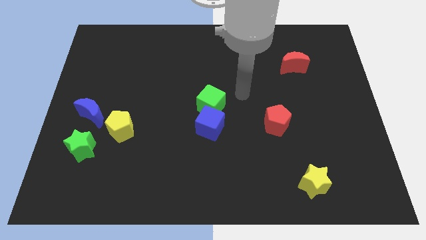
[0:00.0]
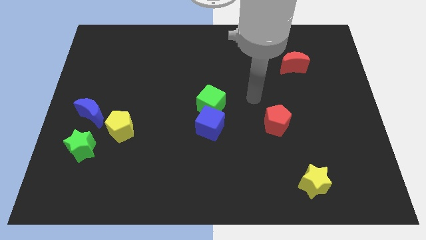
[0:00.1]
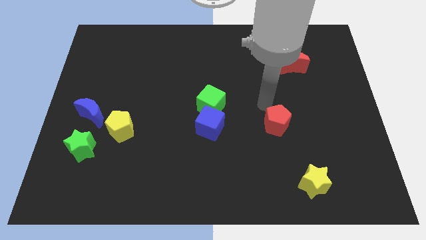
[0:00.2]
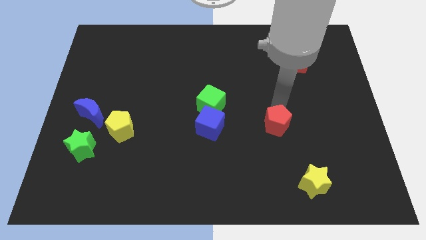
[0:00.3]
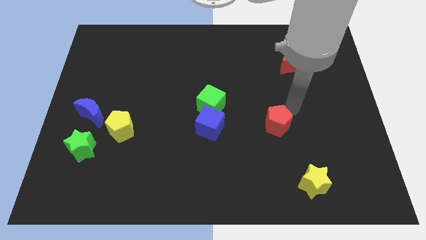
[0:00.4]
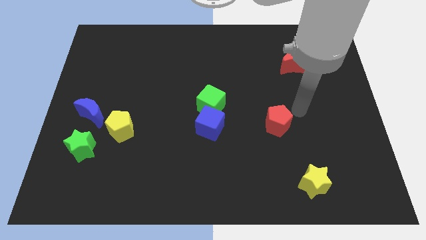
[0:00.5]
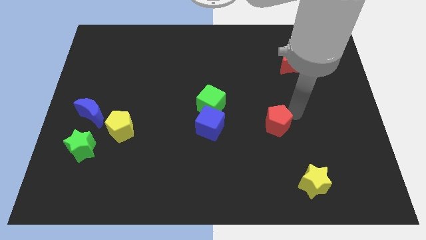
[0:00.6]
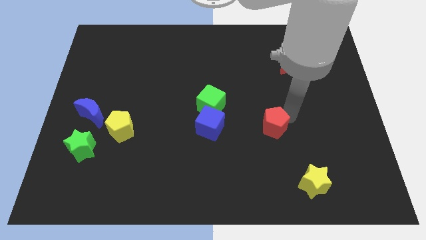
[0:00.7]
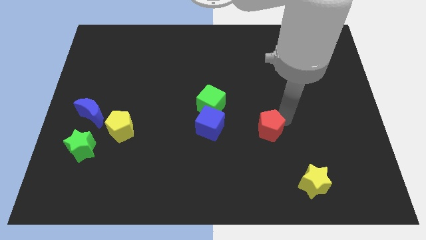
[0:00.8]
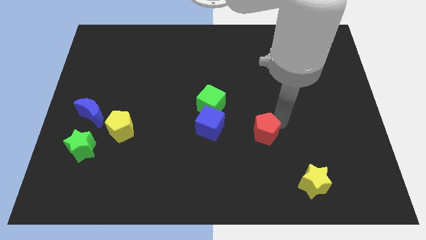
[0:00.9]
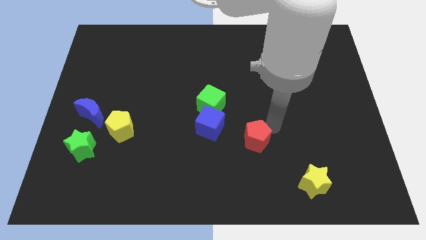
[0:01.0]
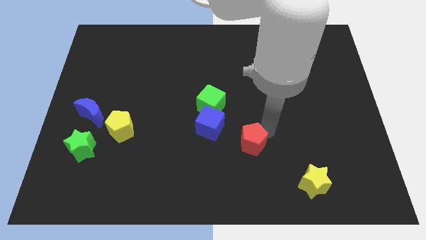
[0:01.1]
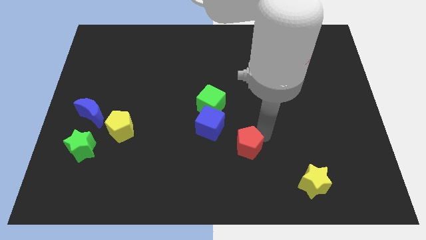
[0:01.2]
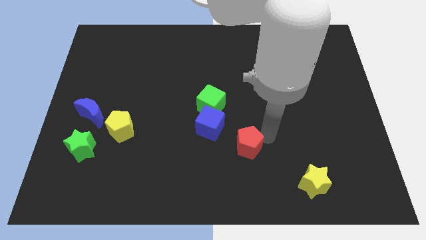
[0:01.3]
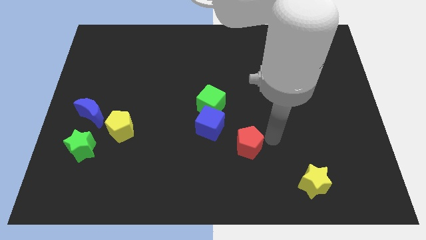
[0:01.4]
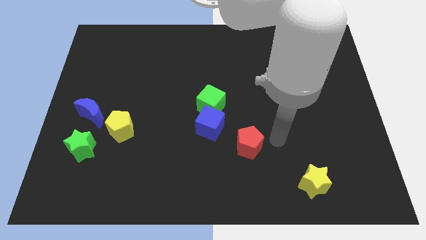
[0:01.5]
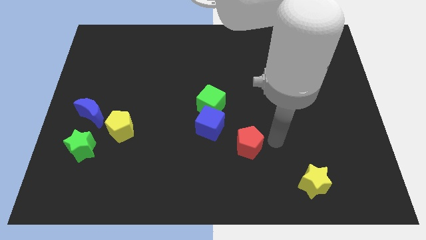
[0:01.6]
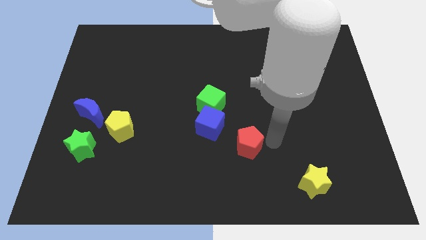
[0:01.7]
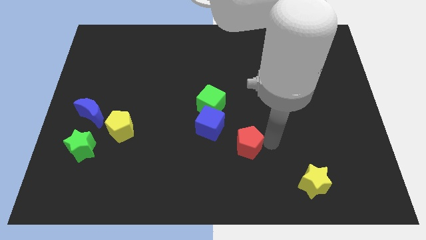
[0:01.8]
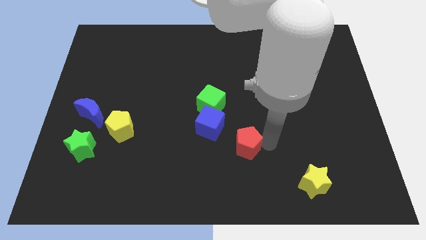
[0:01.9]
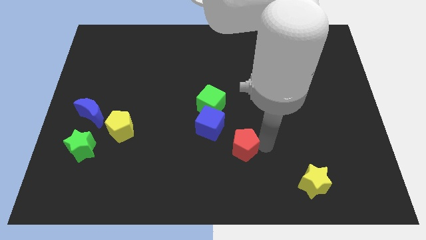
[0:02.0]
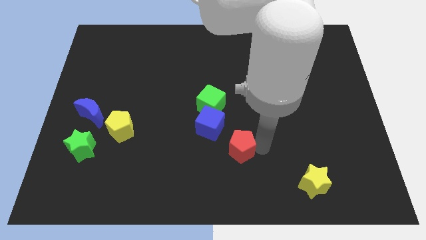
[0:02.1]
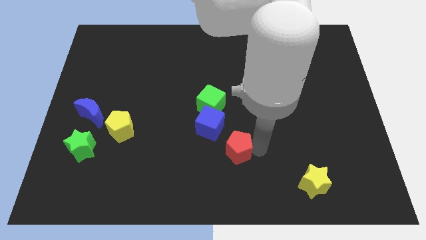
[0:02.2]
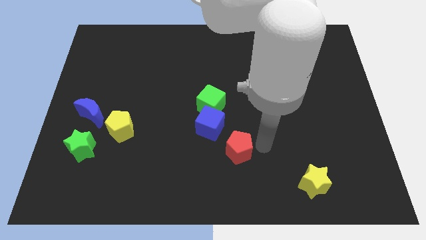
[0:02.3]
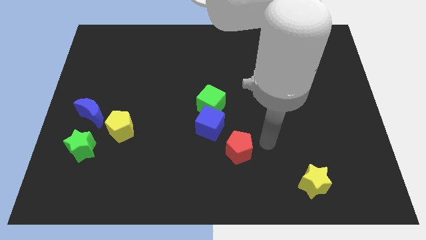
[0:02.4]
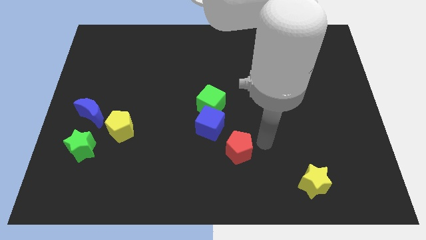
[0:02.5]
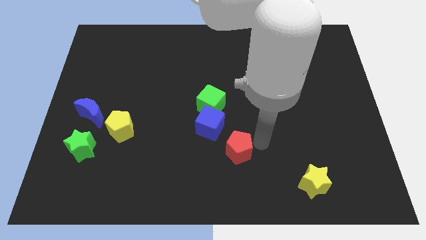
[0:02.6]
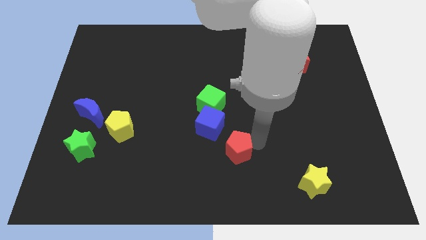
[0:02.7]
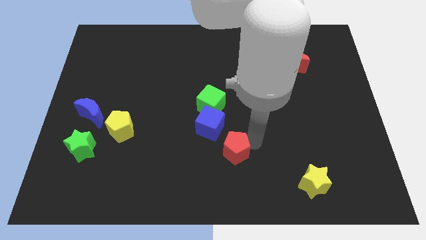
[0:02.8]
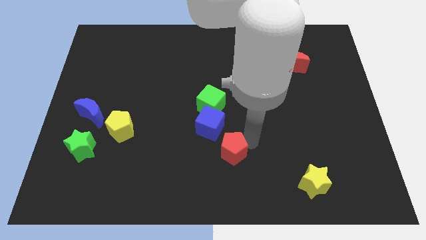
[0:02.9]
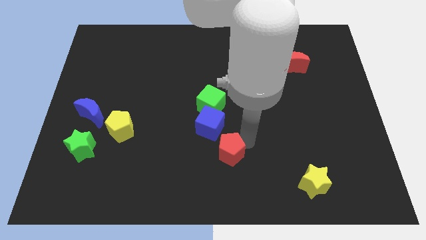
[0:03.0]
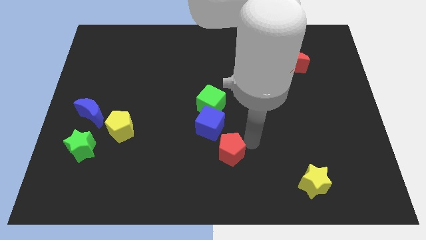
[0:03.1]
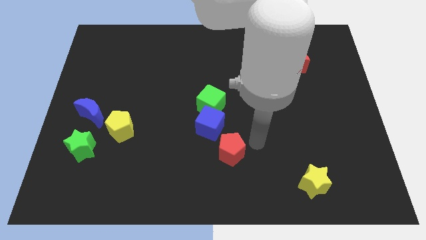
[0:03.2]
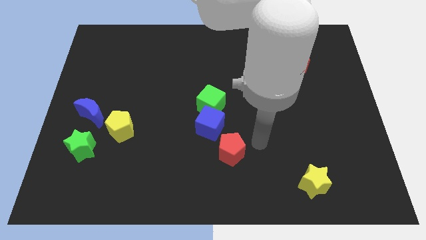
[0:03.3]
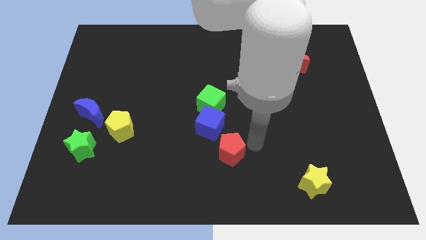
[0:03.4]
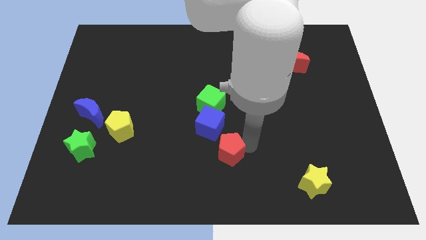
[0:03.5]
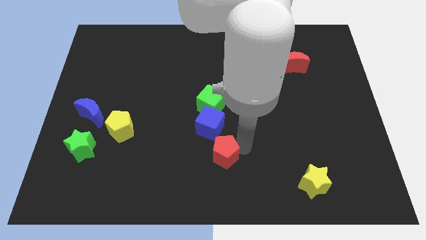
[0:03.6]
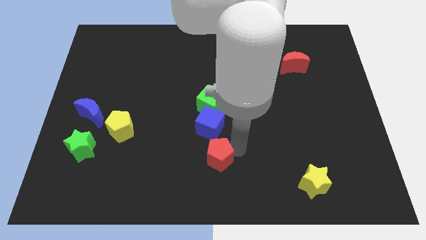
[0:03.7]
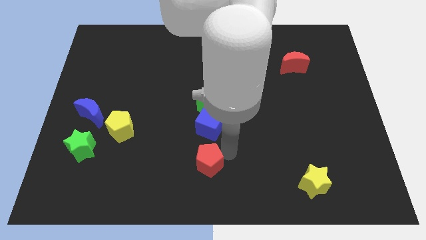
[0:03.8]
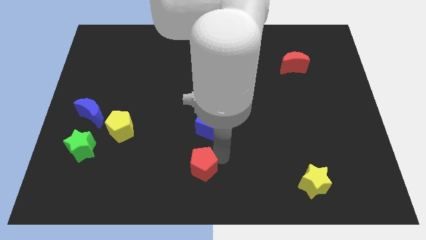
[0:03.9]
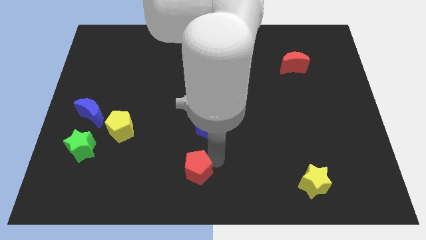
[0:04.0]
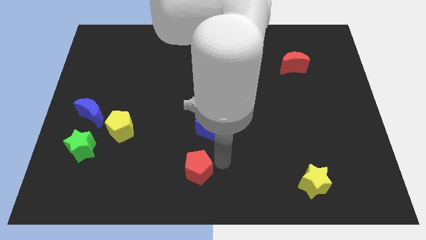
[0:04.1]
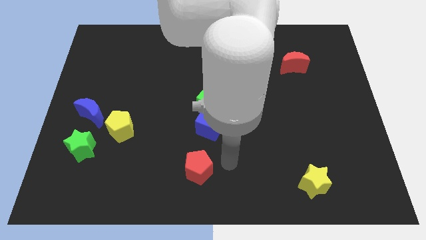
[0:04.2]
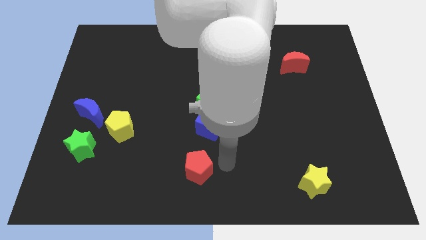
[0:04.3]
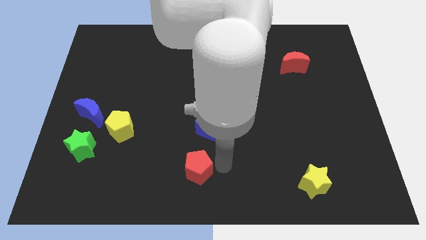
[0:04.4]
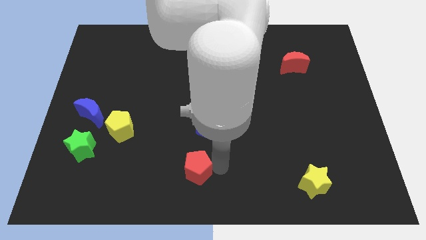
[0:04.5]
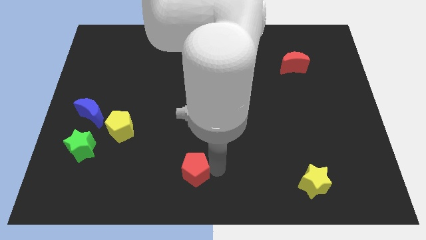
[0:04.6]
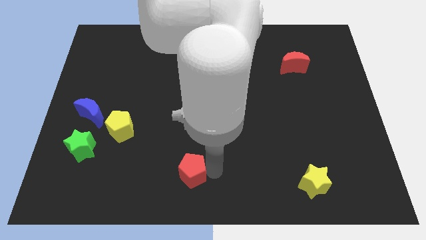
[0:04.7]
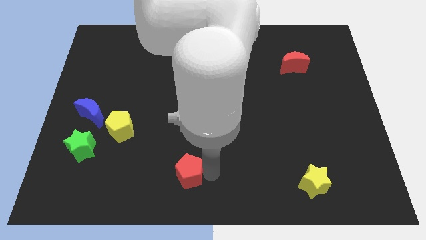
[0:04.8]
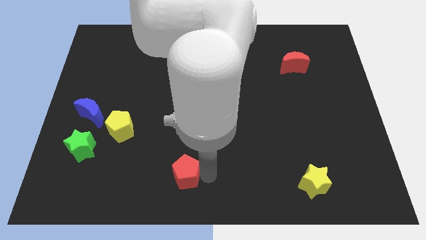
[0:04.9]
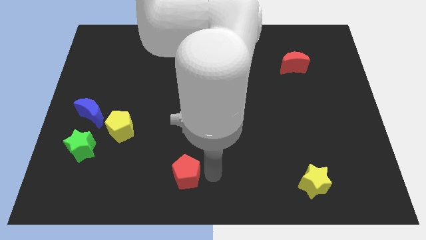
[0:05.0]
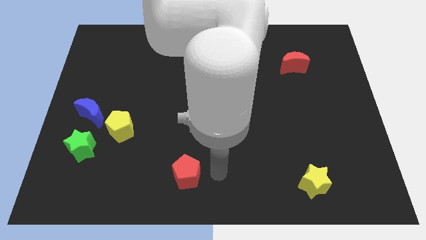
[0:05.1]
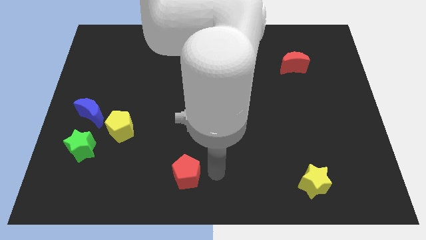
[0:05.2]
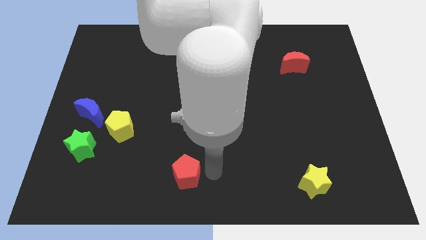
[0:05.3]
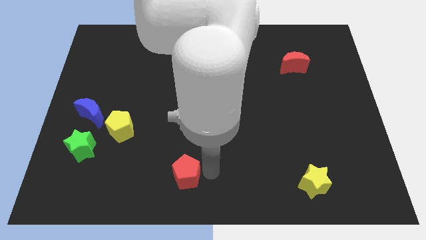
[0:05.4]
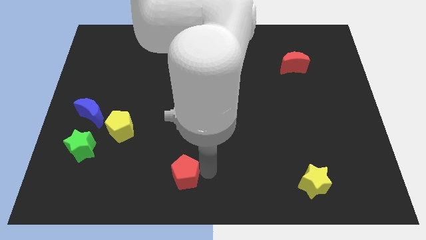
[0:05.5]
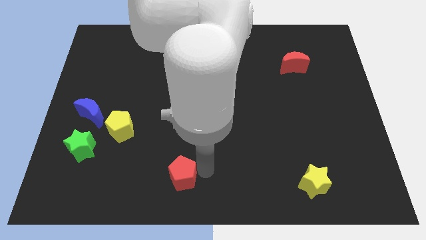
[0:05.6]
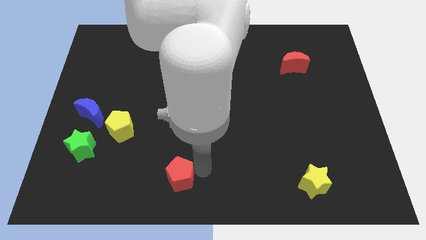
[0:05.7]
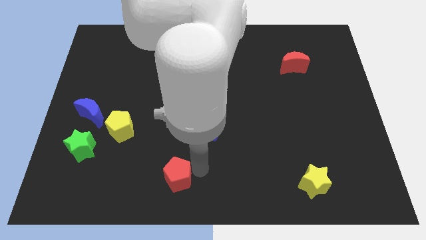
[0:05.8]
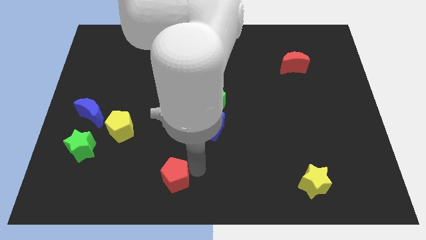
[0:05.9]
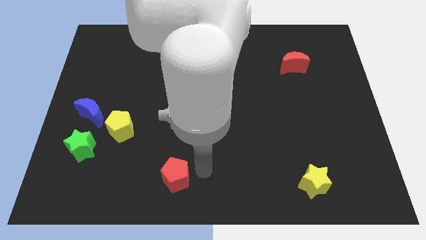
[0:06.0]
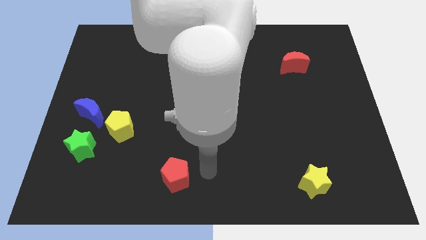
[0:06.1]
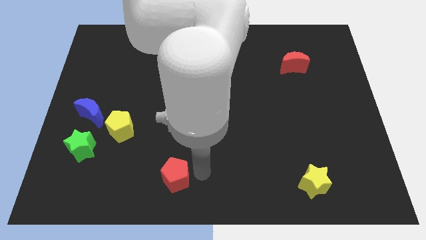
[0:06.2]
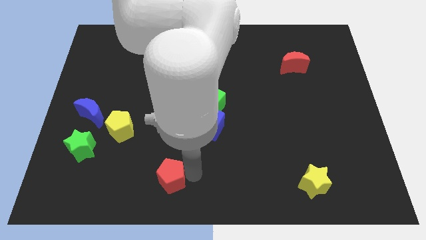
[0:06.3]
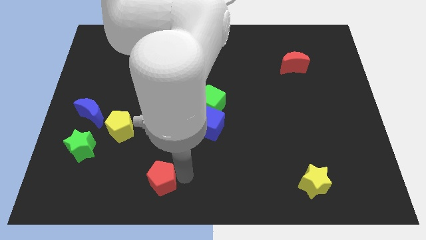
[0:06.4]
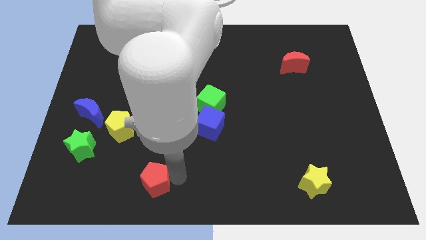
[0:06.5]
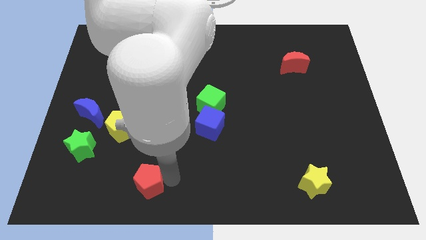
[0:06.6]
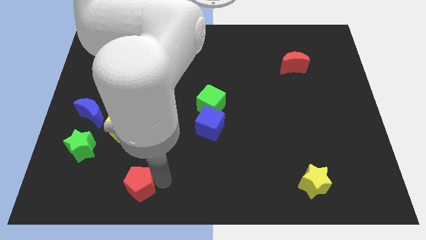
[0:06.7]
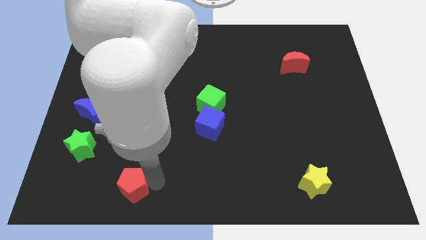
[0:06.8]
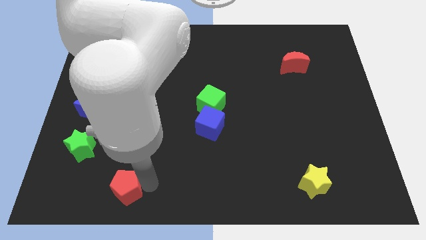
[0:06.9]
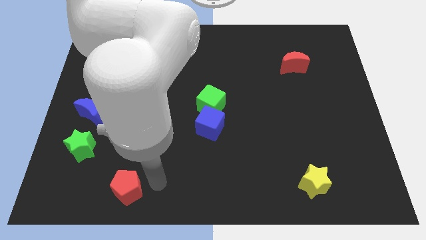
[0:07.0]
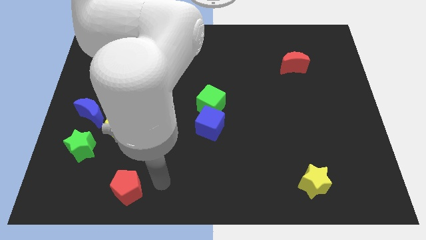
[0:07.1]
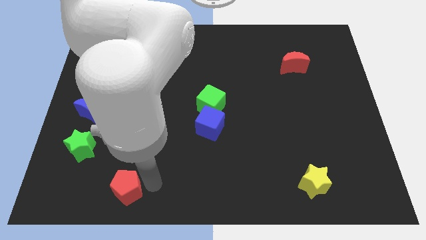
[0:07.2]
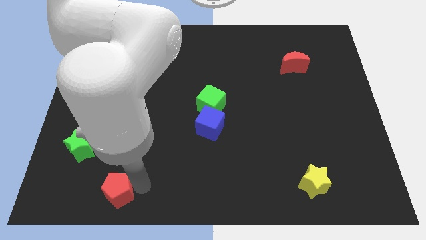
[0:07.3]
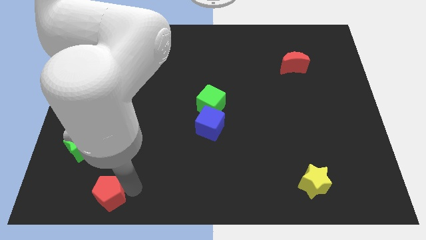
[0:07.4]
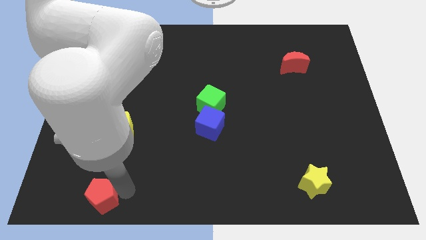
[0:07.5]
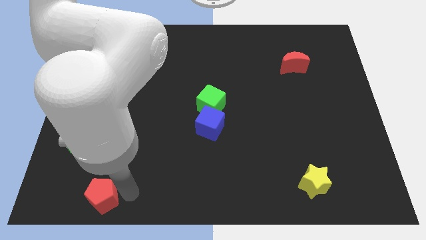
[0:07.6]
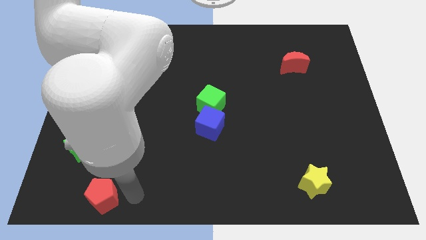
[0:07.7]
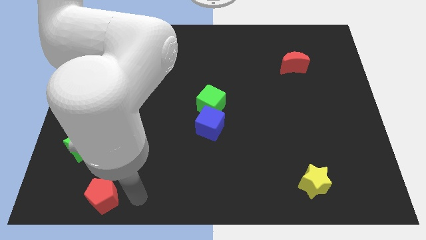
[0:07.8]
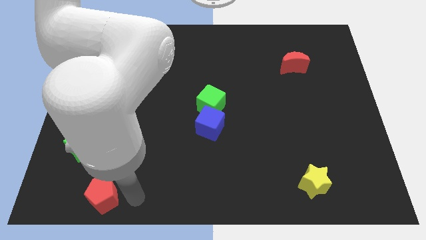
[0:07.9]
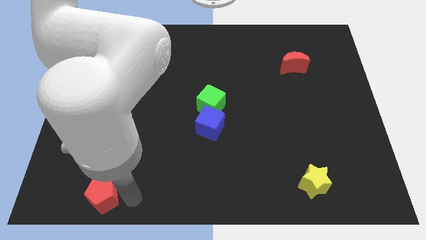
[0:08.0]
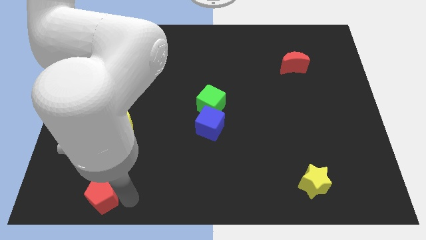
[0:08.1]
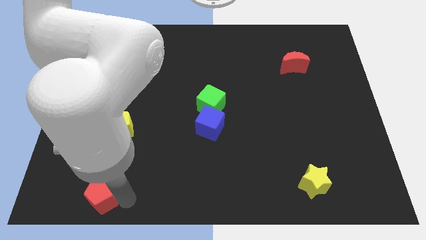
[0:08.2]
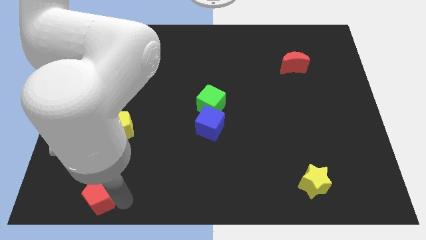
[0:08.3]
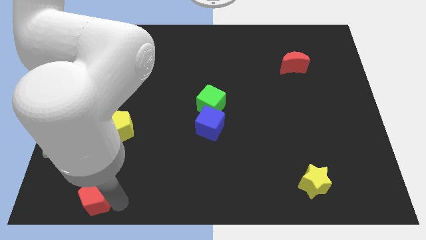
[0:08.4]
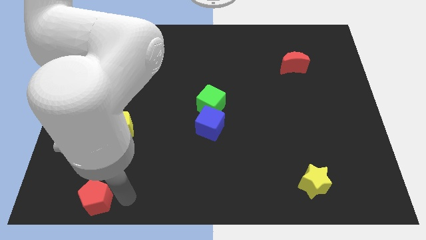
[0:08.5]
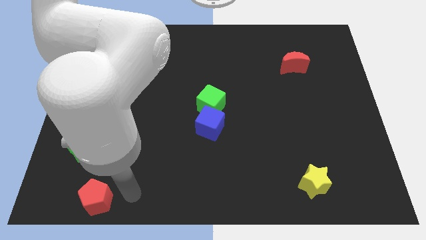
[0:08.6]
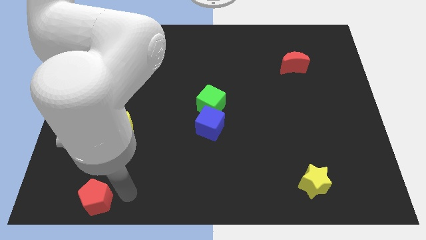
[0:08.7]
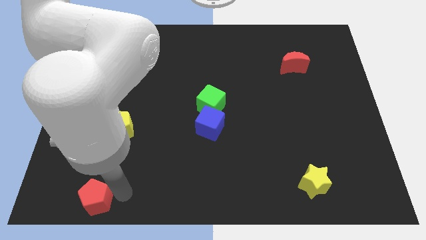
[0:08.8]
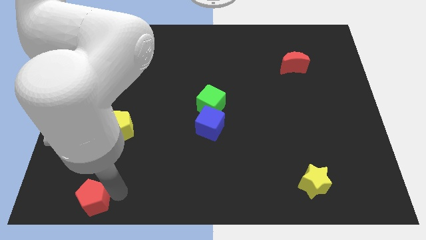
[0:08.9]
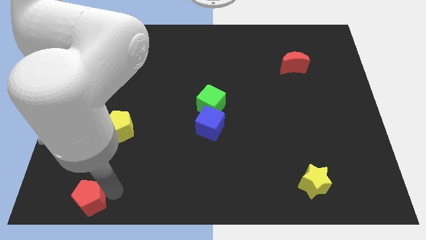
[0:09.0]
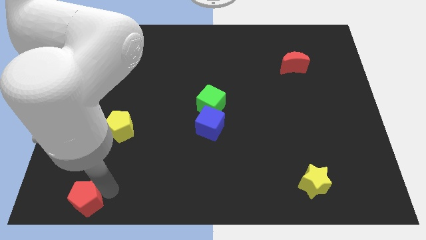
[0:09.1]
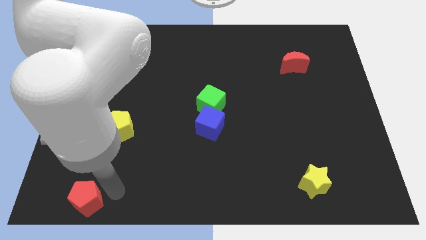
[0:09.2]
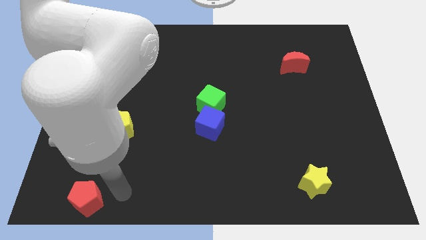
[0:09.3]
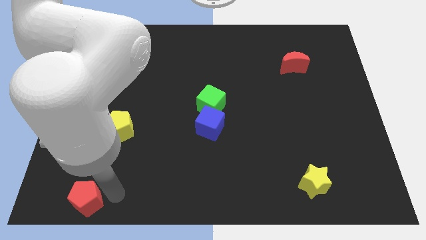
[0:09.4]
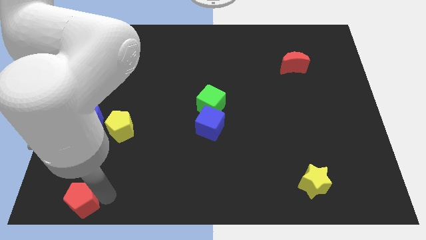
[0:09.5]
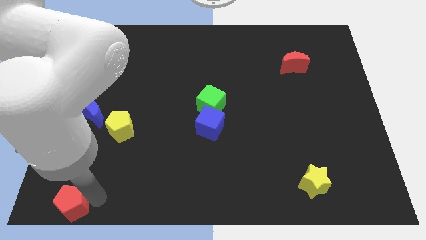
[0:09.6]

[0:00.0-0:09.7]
put the red pentagon to the lower left corner
